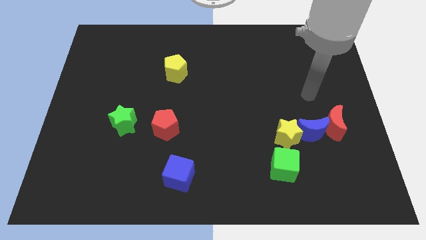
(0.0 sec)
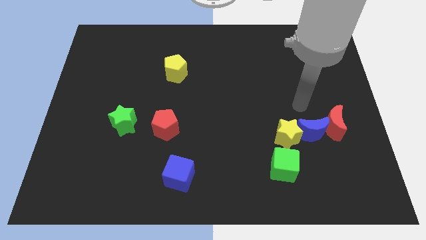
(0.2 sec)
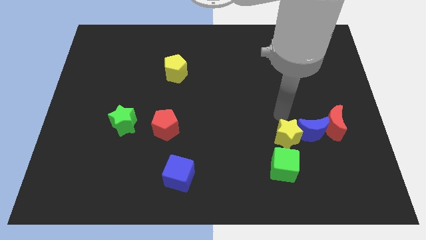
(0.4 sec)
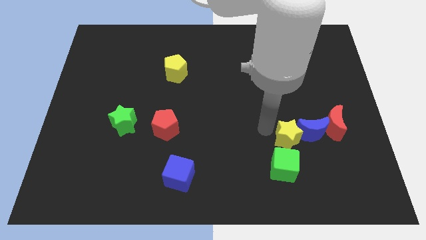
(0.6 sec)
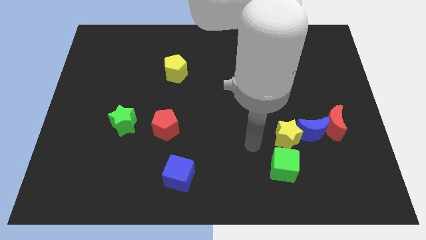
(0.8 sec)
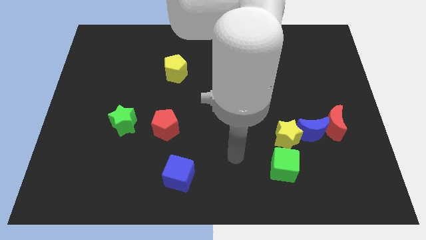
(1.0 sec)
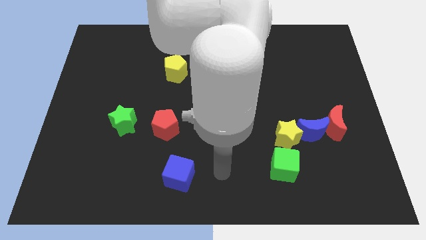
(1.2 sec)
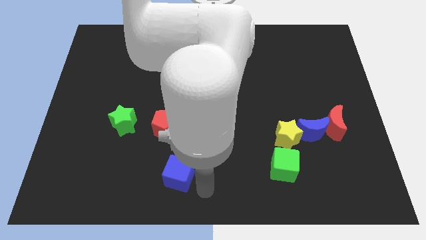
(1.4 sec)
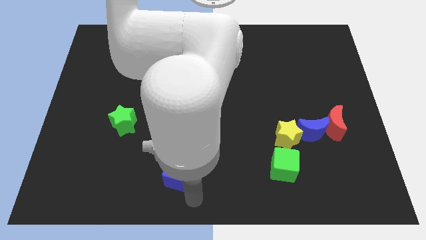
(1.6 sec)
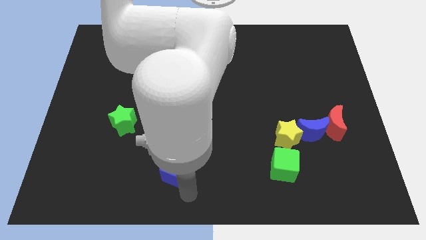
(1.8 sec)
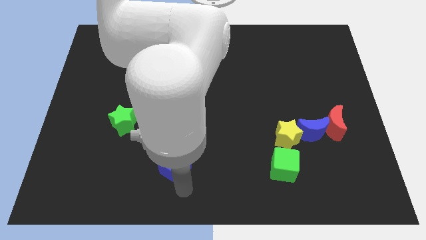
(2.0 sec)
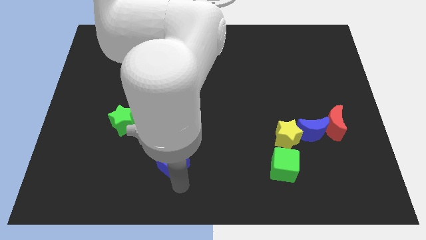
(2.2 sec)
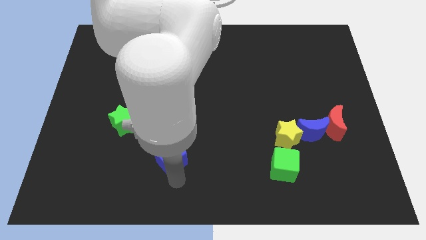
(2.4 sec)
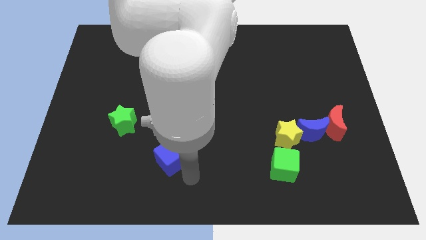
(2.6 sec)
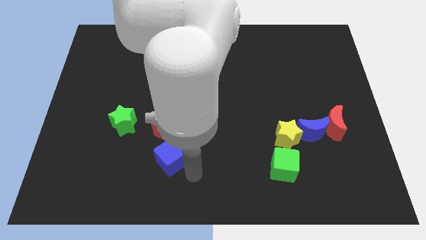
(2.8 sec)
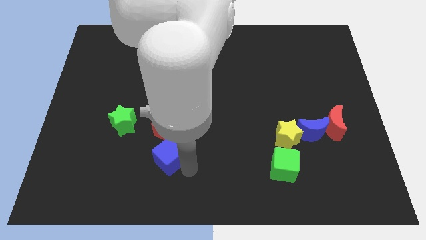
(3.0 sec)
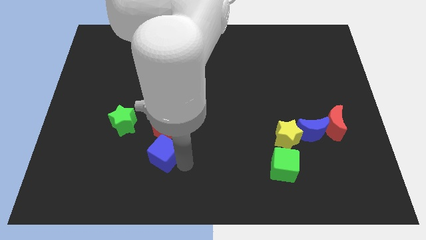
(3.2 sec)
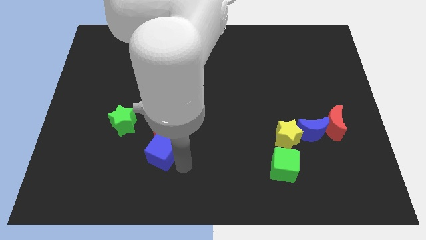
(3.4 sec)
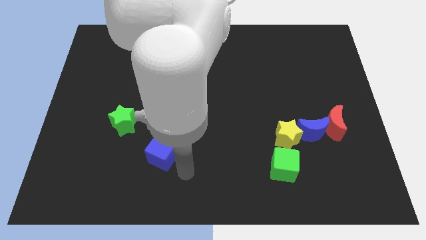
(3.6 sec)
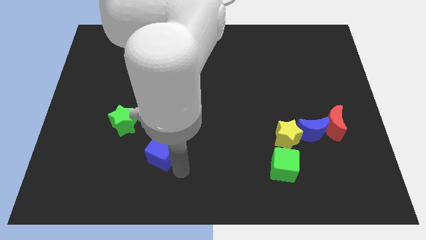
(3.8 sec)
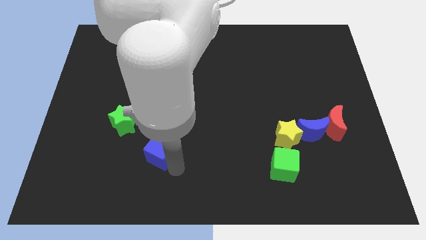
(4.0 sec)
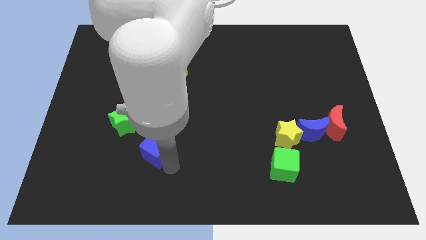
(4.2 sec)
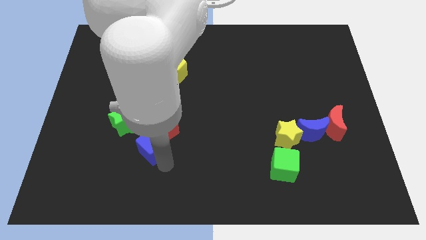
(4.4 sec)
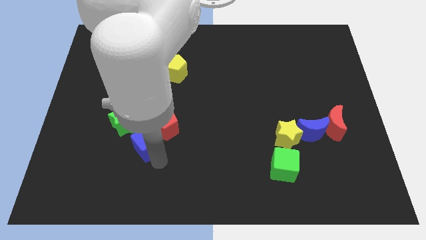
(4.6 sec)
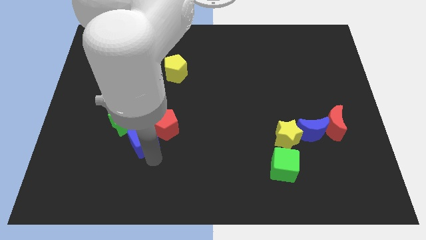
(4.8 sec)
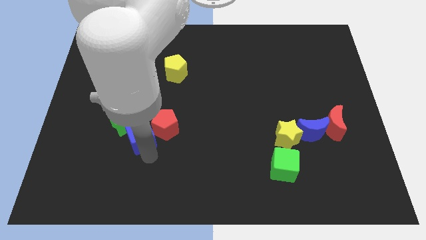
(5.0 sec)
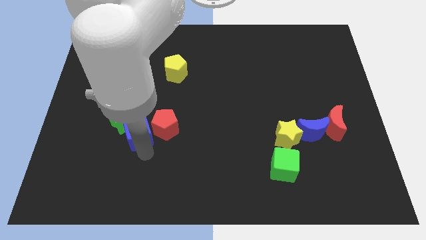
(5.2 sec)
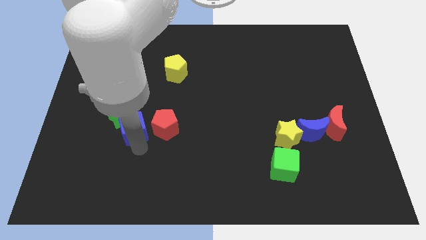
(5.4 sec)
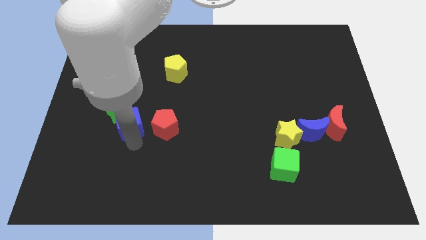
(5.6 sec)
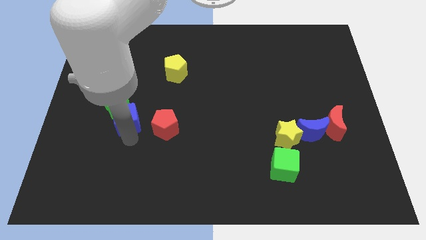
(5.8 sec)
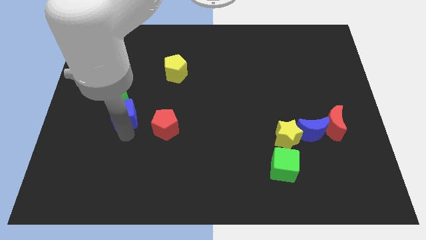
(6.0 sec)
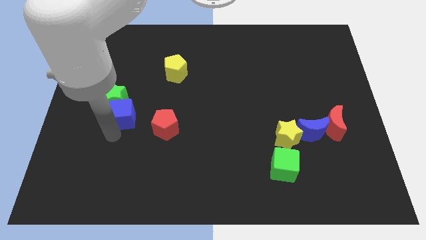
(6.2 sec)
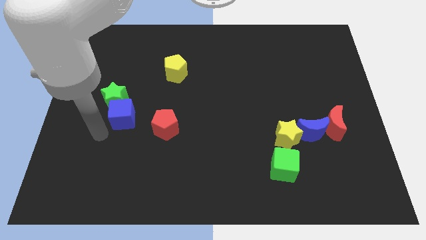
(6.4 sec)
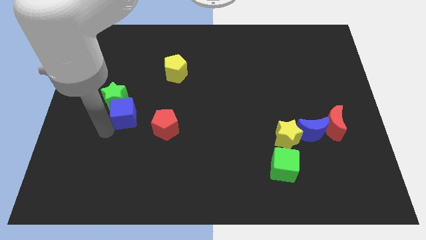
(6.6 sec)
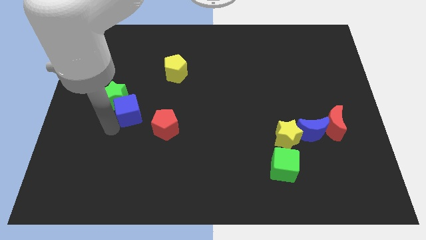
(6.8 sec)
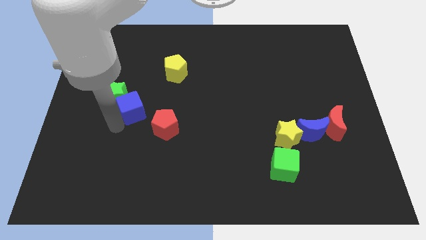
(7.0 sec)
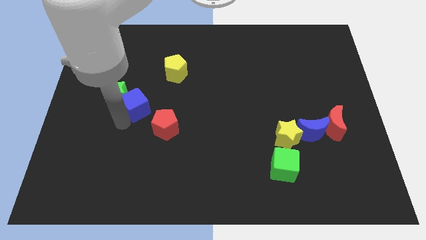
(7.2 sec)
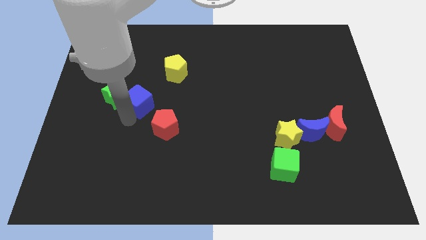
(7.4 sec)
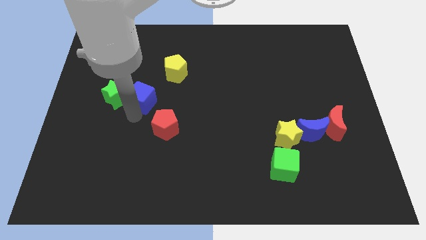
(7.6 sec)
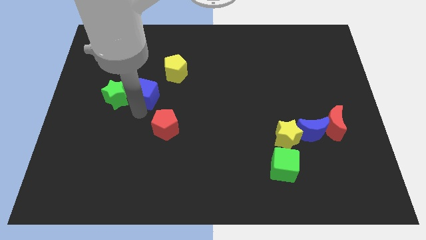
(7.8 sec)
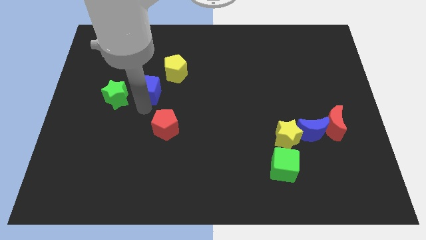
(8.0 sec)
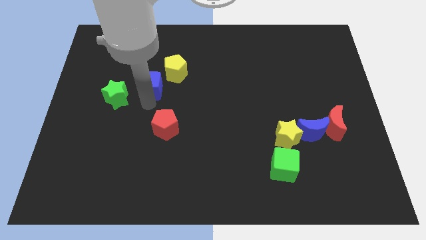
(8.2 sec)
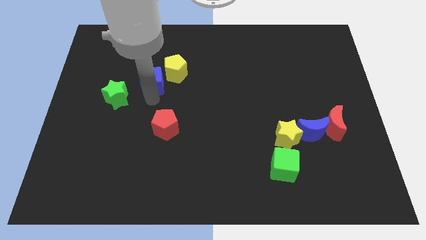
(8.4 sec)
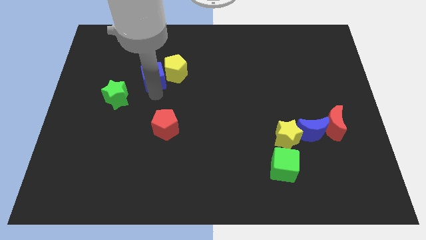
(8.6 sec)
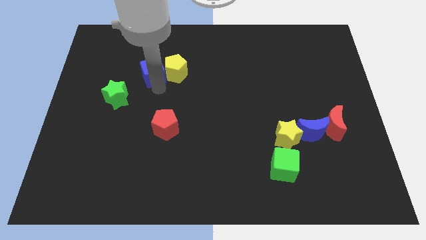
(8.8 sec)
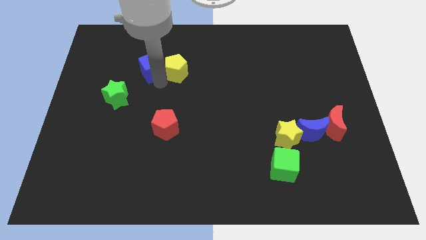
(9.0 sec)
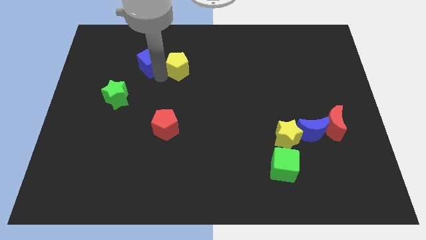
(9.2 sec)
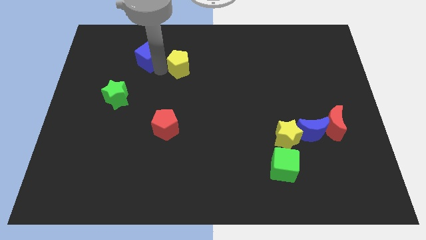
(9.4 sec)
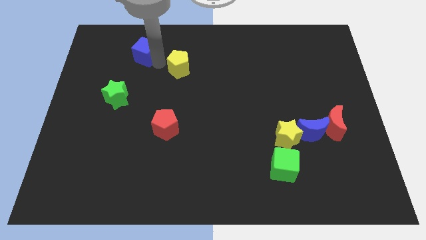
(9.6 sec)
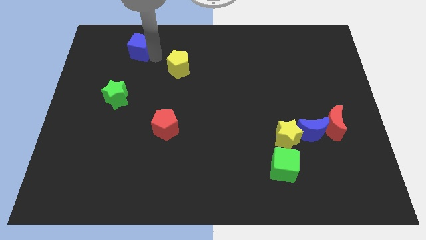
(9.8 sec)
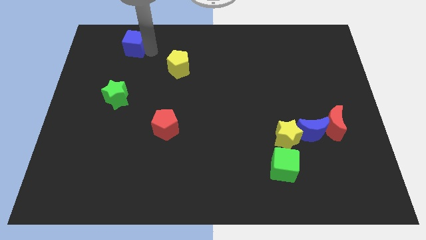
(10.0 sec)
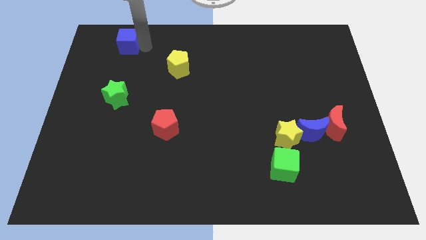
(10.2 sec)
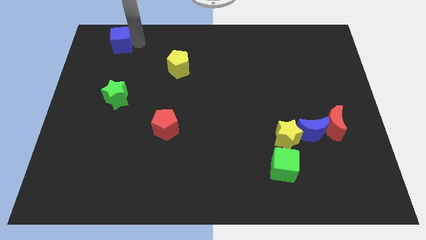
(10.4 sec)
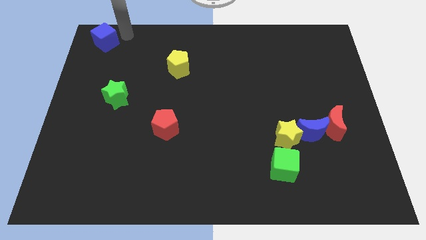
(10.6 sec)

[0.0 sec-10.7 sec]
push the blue cube to the upper left corner

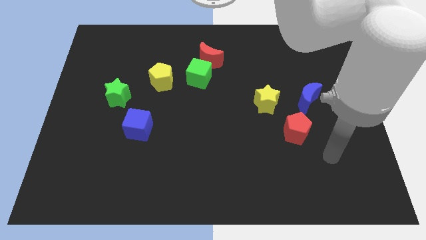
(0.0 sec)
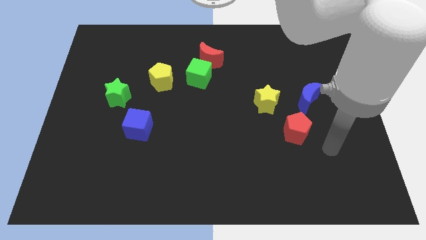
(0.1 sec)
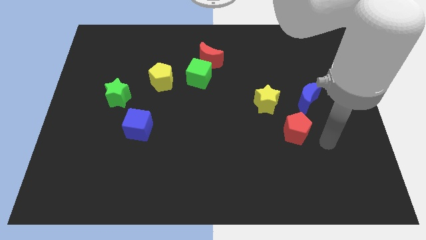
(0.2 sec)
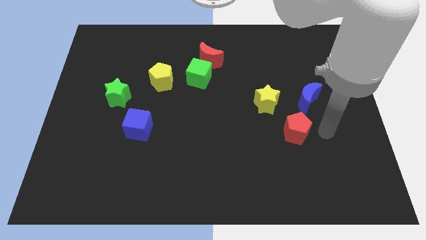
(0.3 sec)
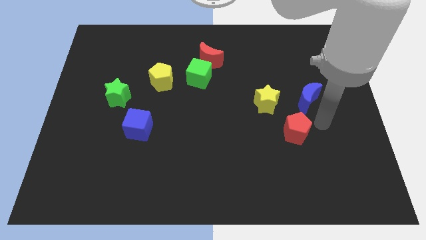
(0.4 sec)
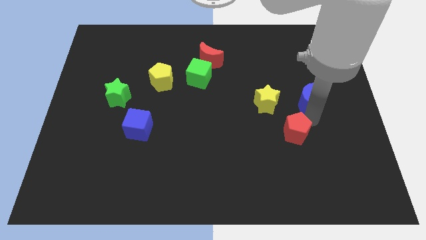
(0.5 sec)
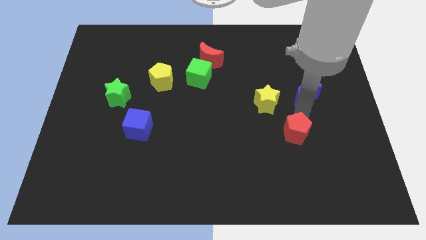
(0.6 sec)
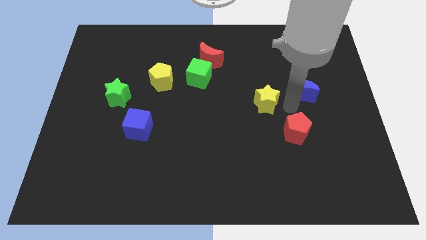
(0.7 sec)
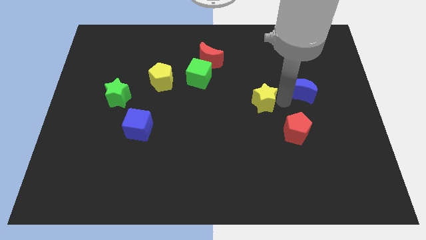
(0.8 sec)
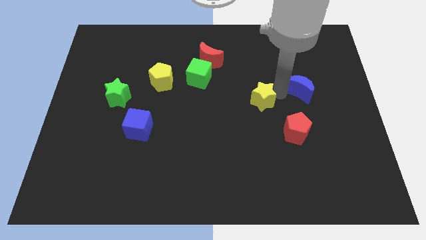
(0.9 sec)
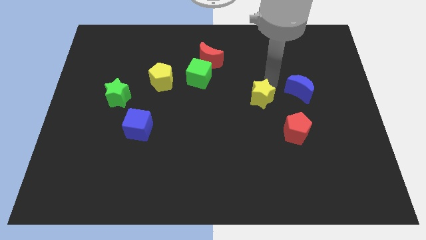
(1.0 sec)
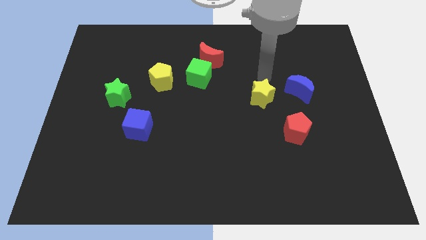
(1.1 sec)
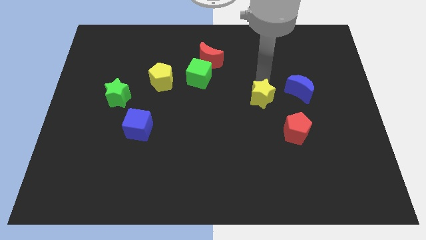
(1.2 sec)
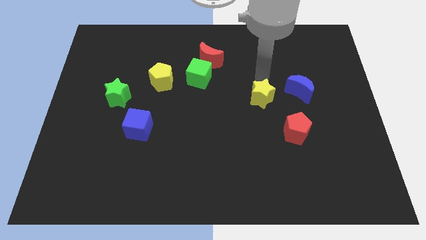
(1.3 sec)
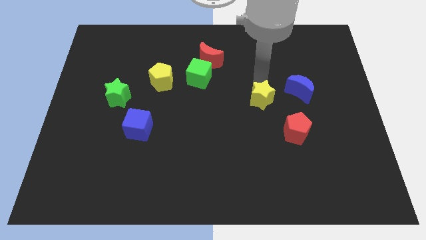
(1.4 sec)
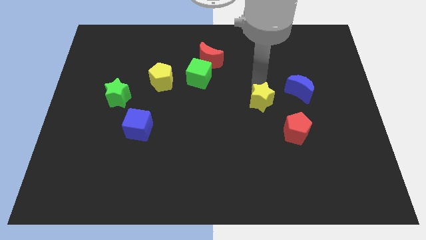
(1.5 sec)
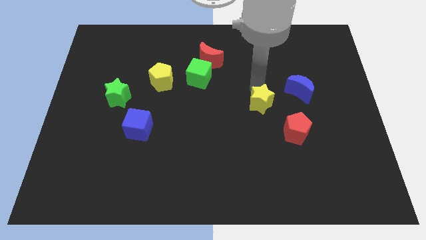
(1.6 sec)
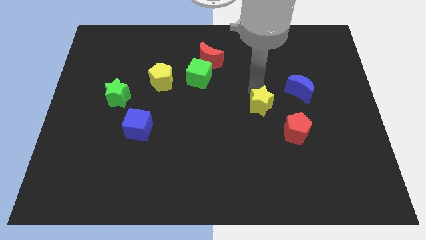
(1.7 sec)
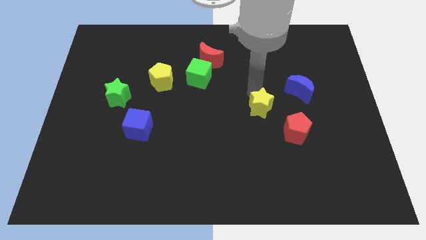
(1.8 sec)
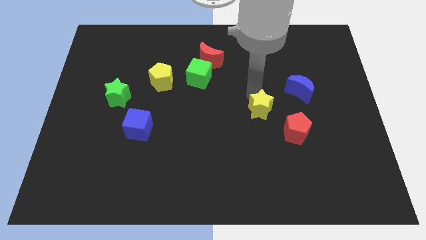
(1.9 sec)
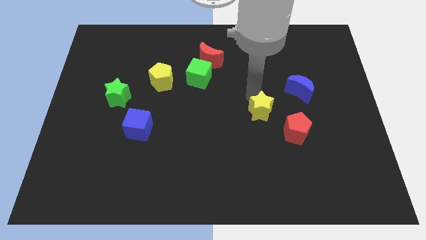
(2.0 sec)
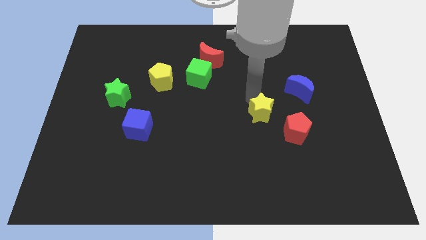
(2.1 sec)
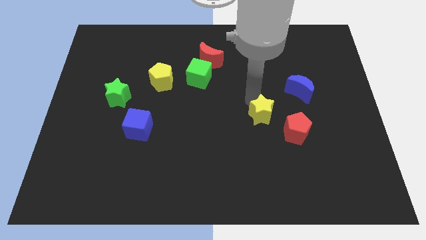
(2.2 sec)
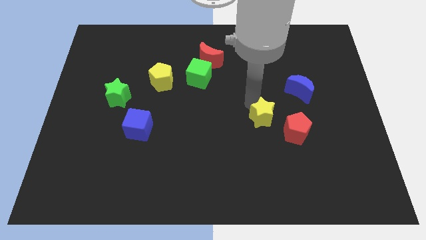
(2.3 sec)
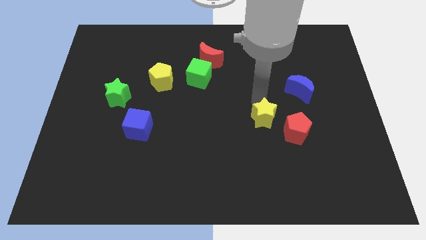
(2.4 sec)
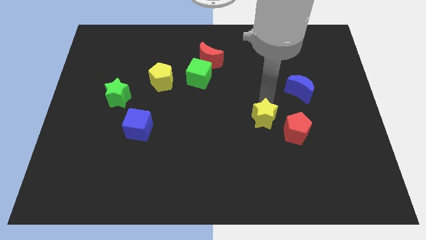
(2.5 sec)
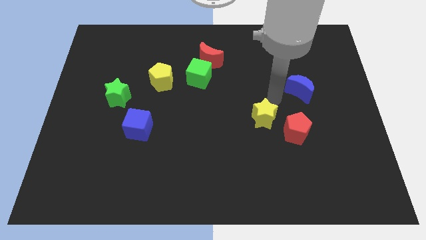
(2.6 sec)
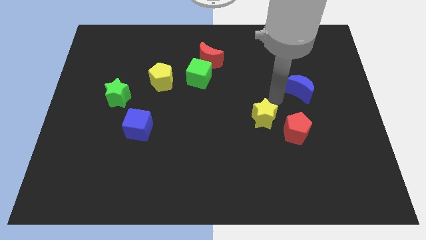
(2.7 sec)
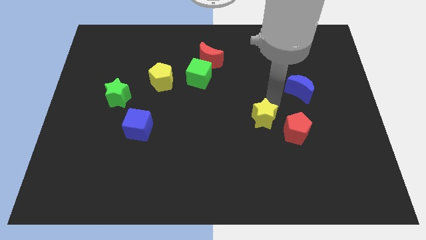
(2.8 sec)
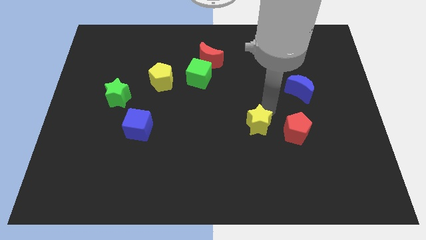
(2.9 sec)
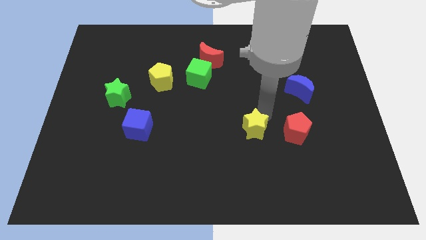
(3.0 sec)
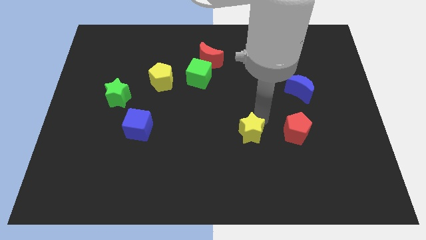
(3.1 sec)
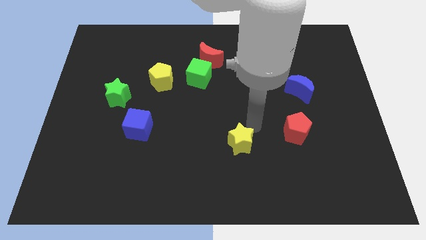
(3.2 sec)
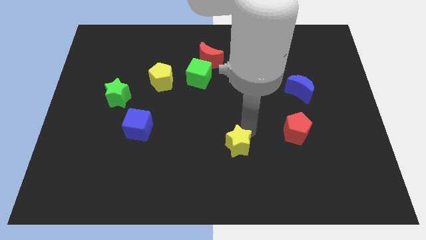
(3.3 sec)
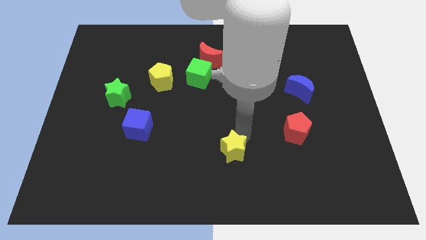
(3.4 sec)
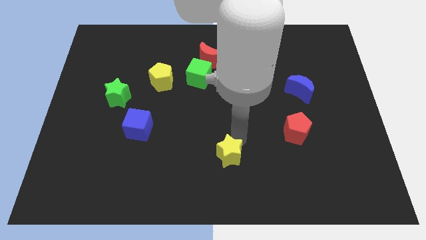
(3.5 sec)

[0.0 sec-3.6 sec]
push the yellow star to the bottom
